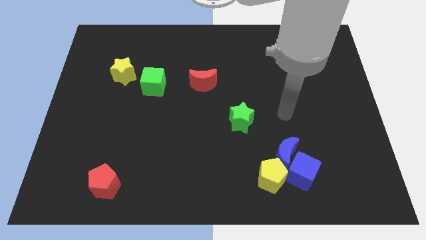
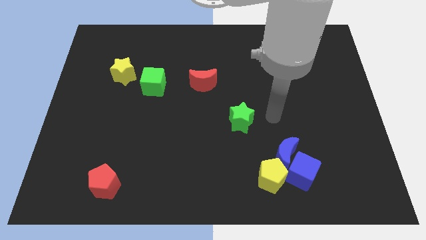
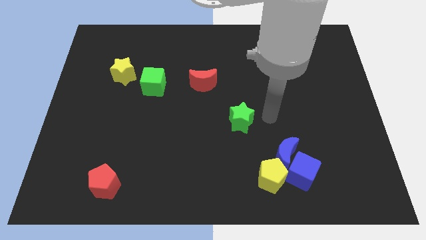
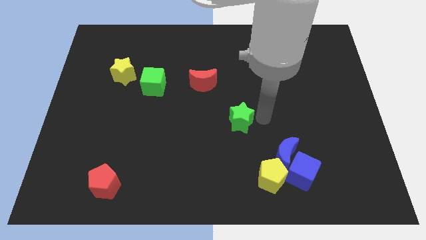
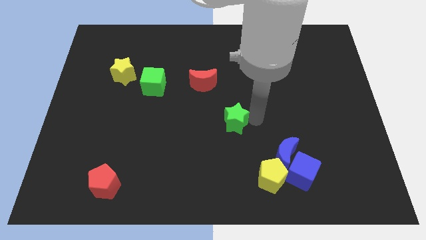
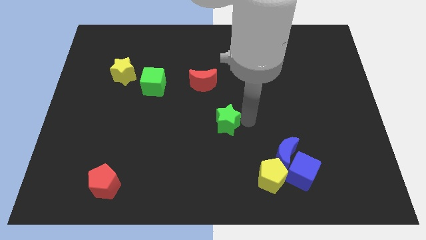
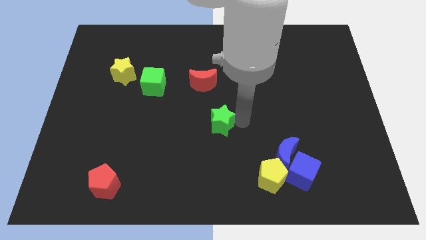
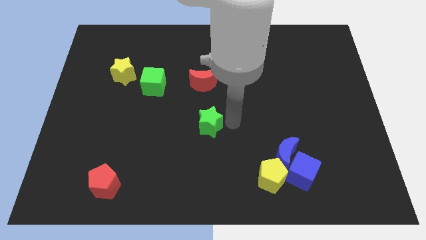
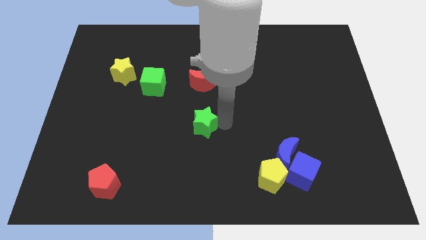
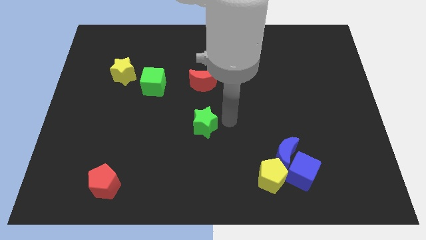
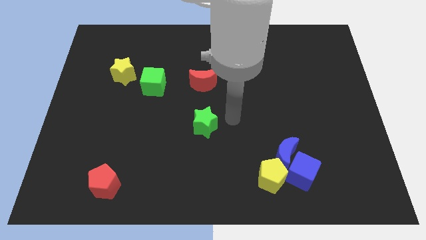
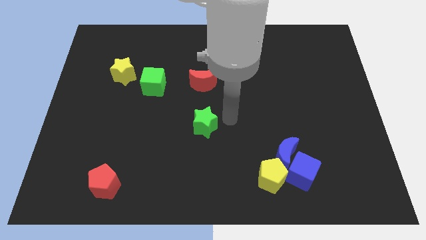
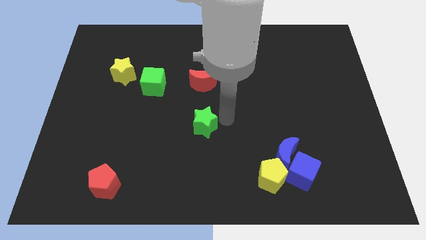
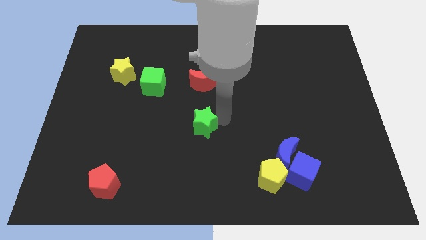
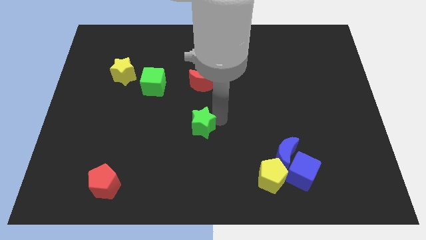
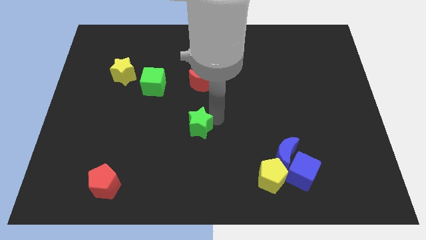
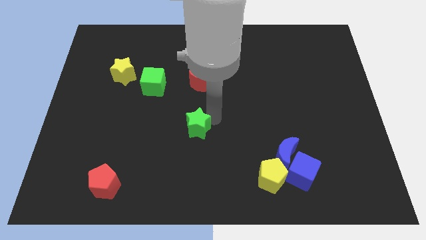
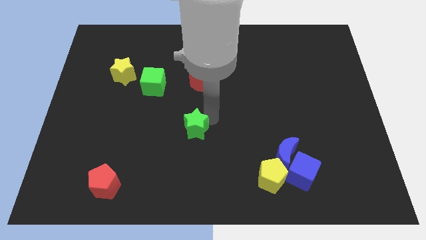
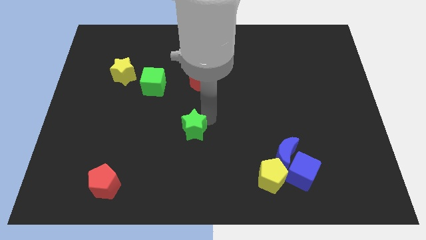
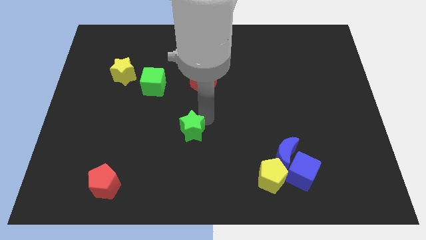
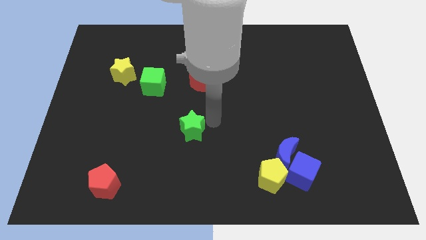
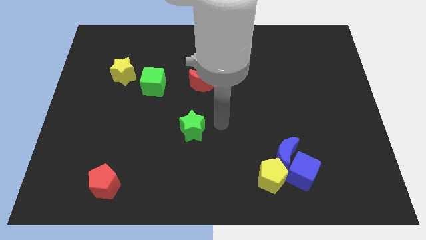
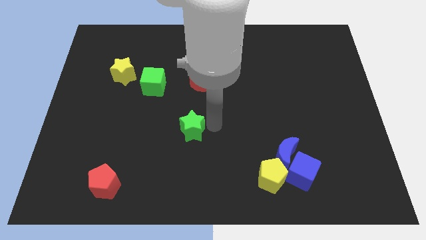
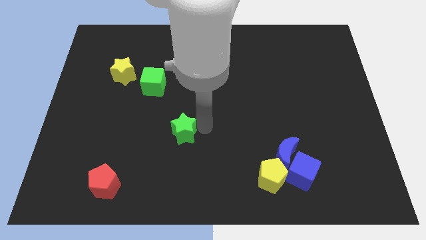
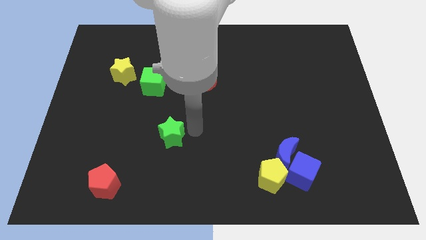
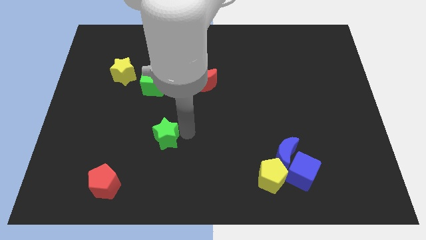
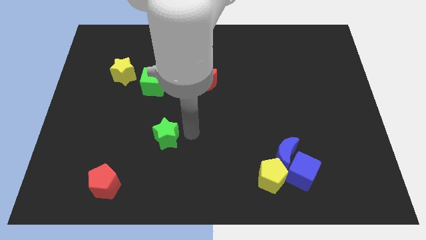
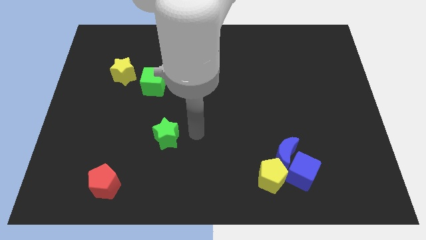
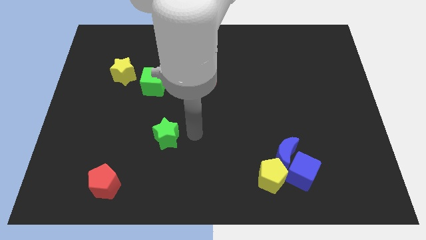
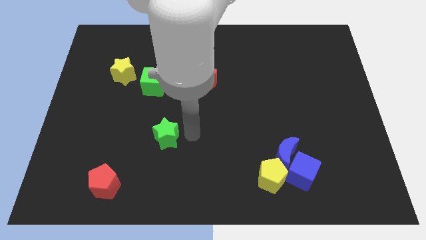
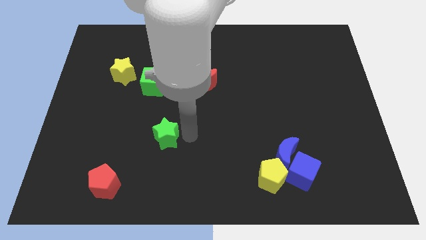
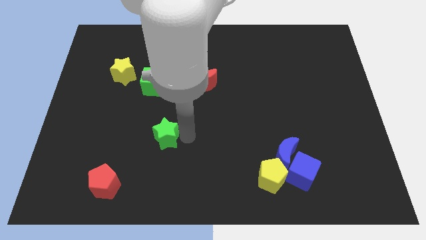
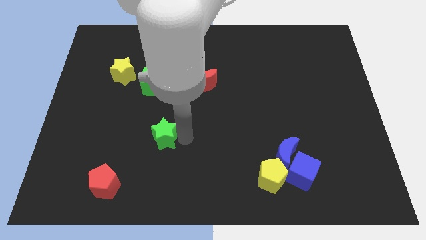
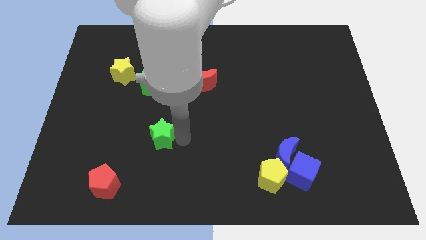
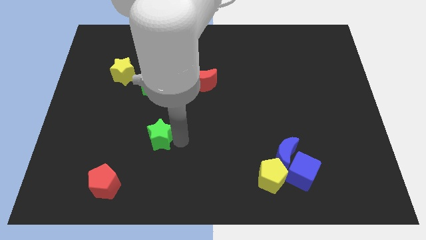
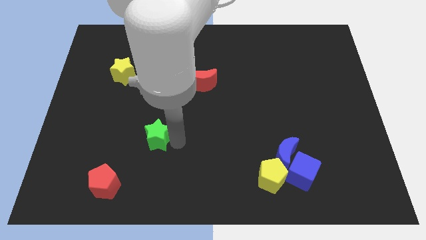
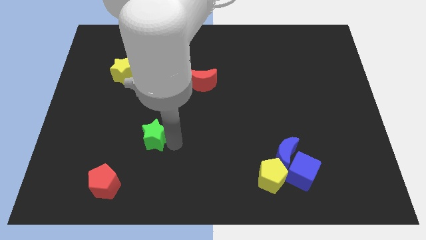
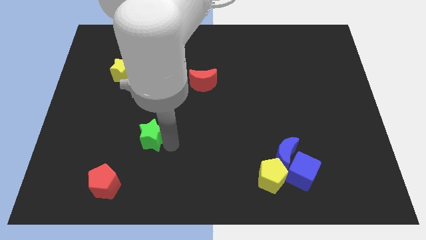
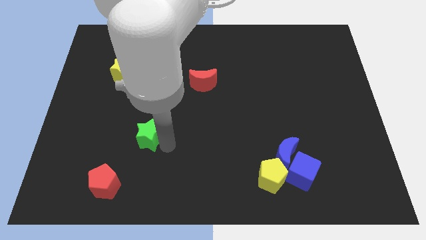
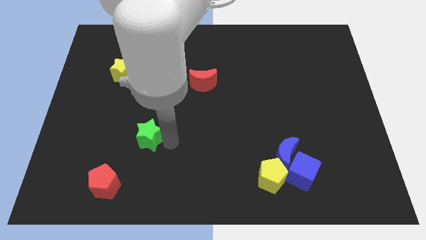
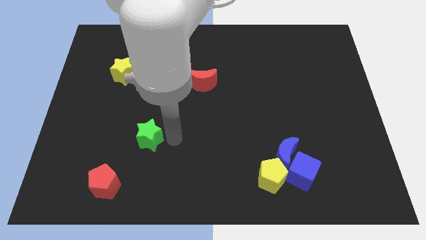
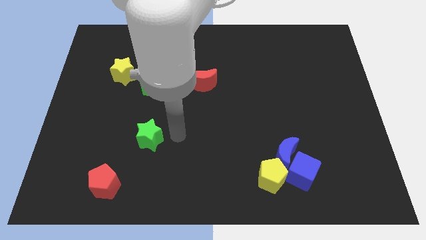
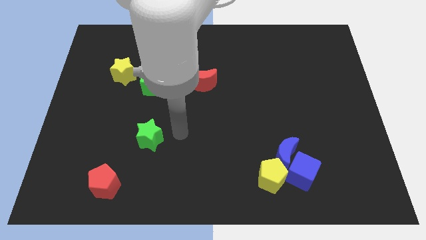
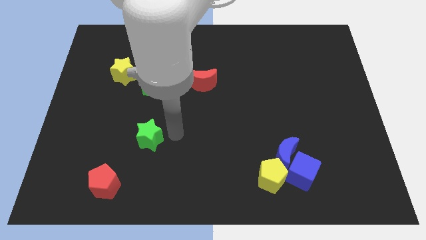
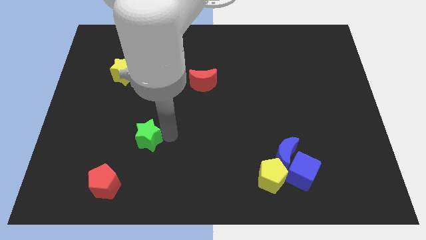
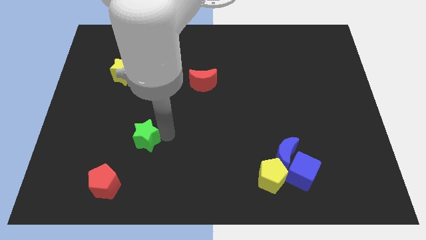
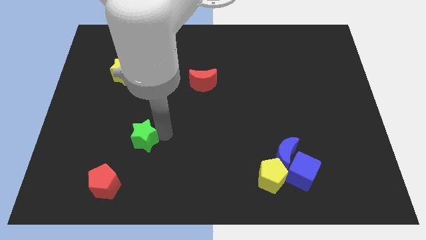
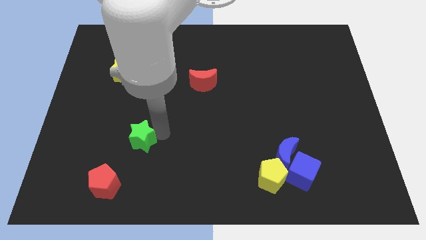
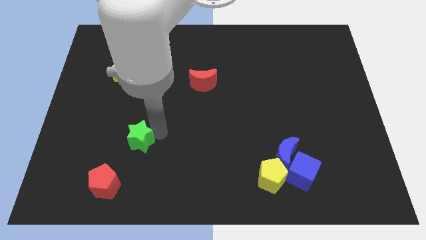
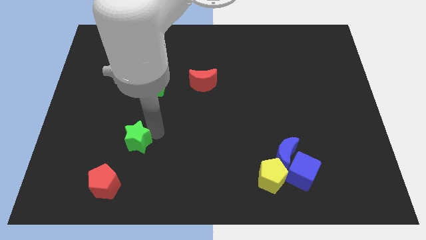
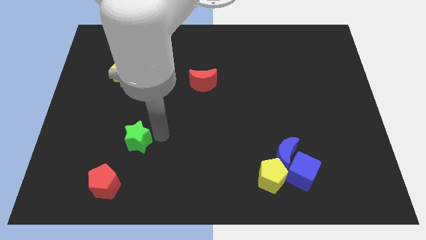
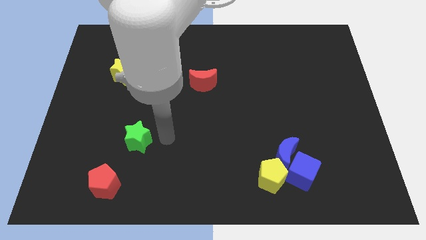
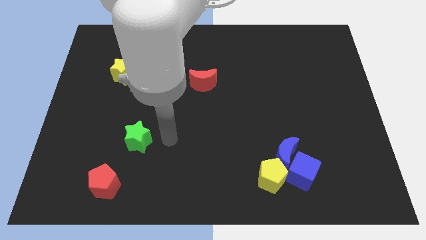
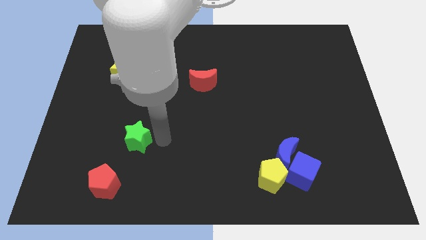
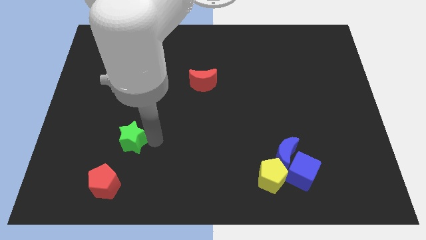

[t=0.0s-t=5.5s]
slide the green star to the top of the red pentagon

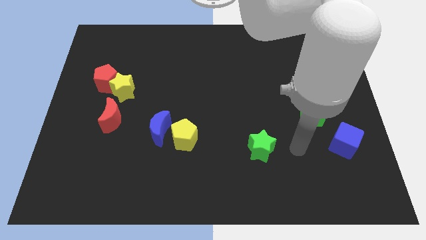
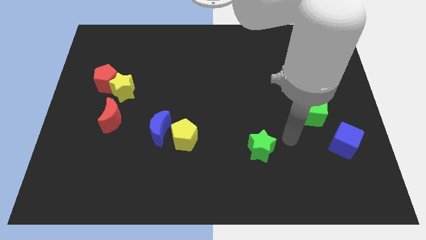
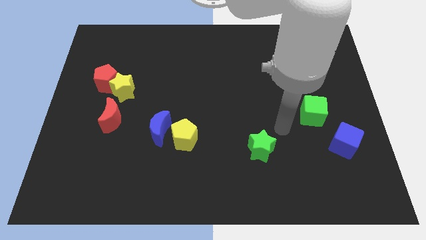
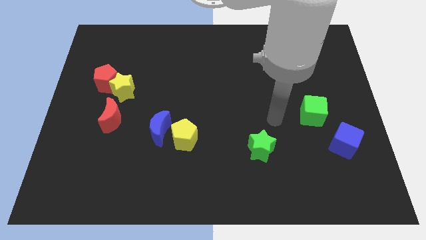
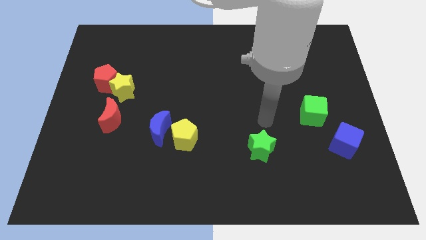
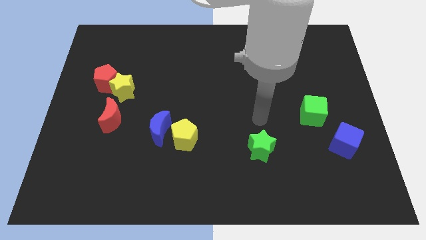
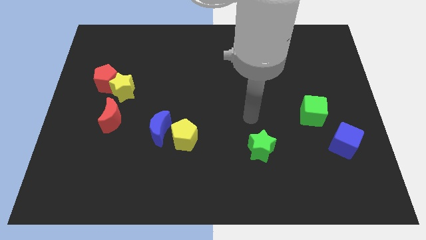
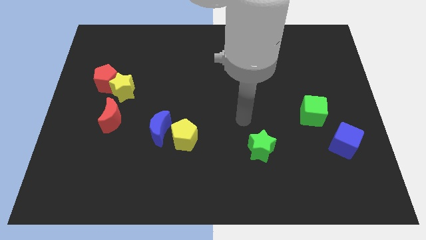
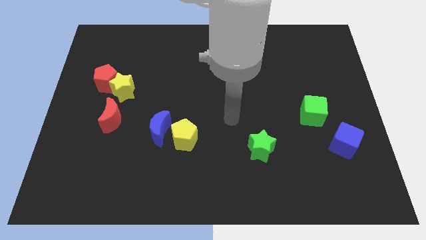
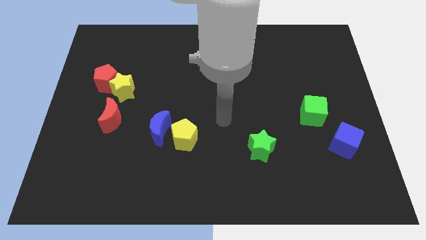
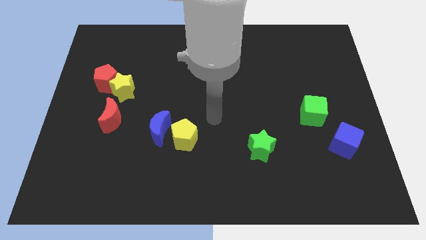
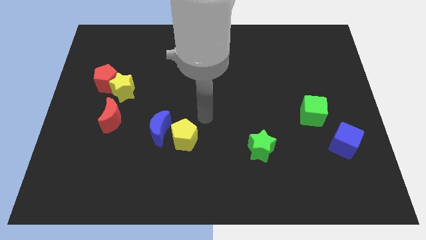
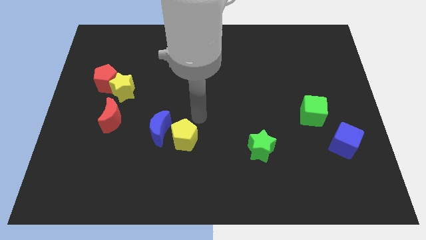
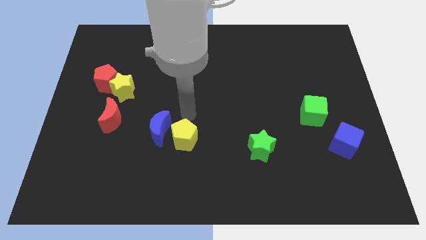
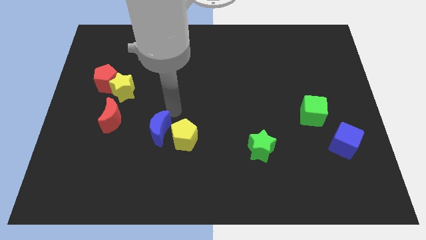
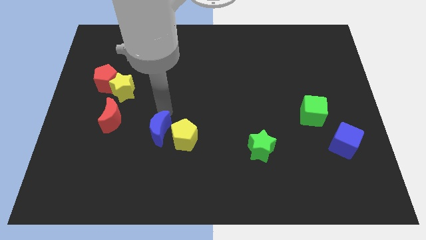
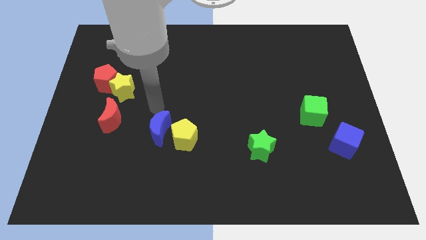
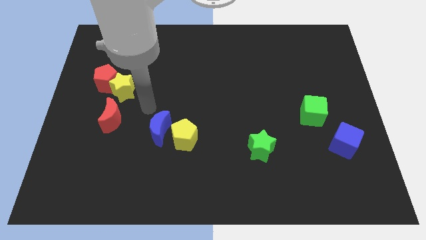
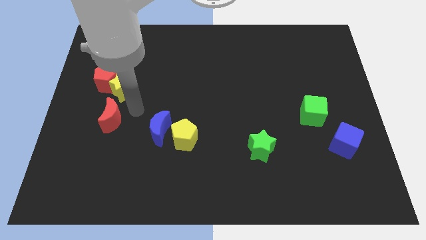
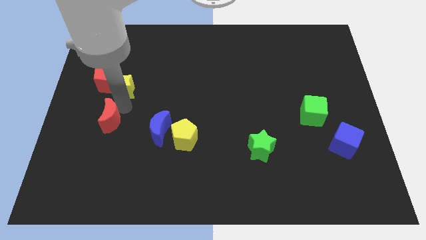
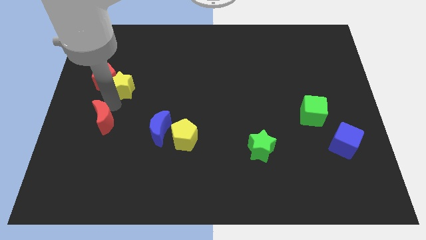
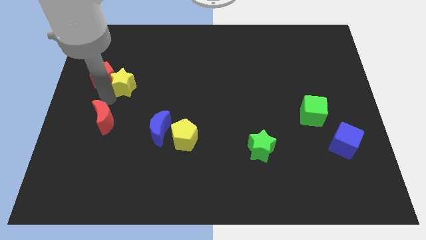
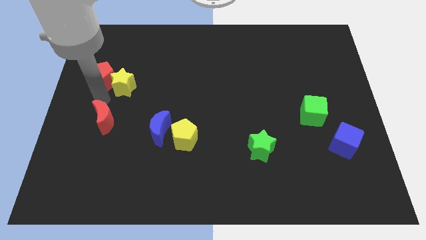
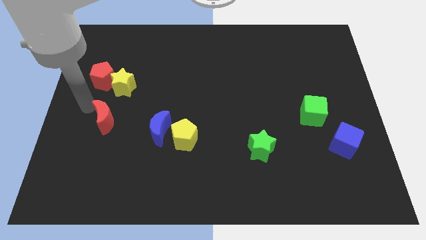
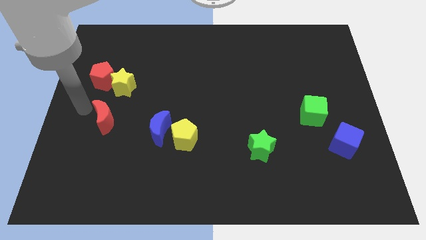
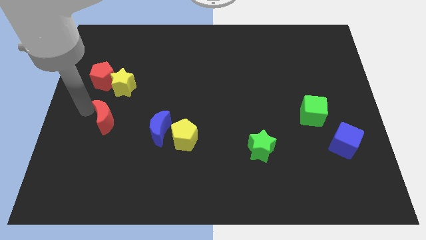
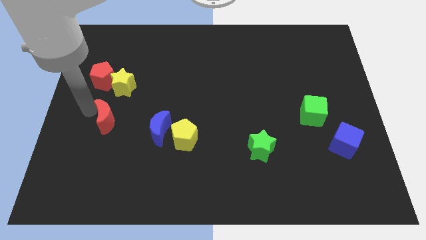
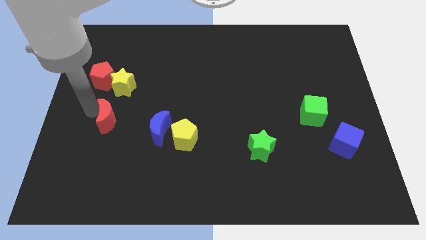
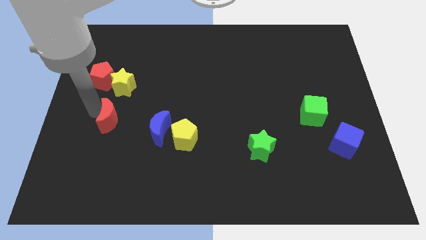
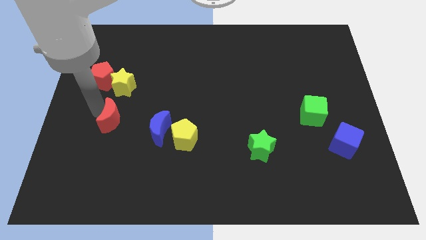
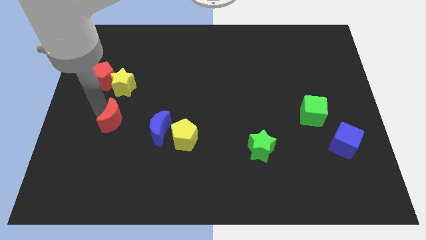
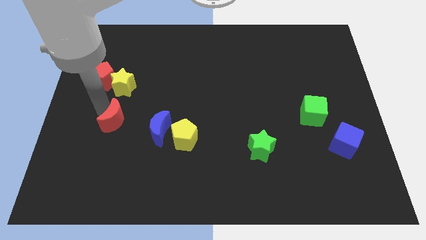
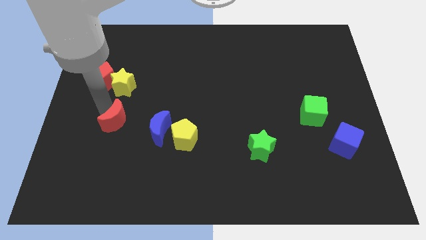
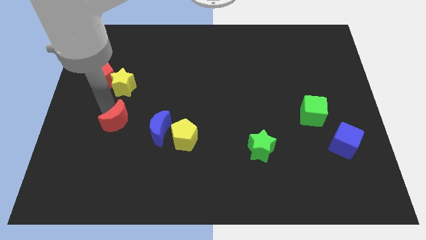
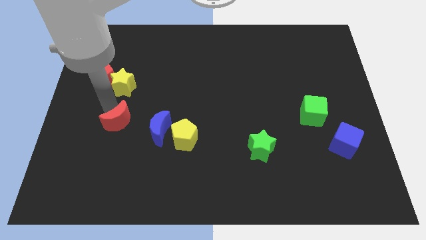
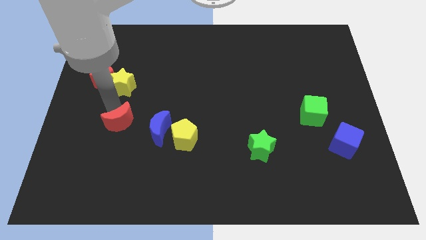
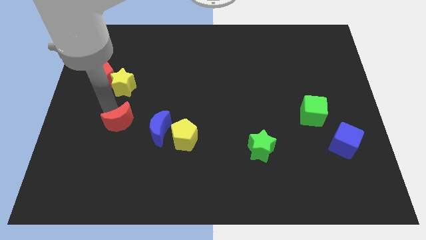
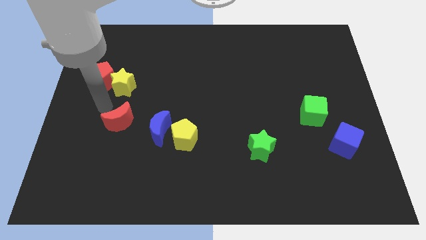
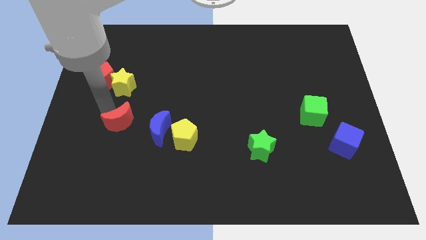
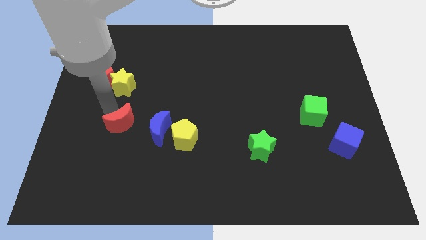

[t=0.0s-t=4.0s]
push the red moon left of the yellow pentagon
